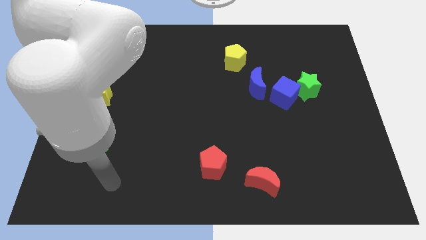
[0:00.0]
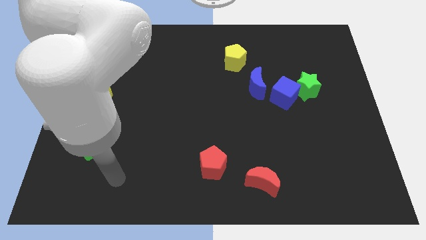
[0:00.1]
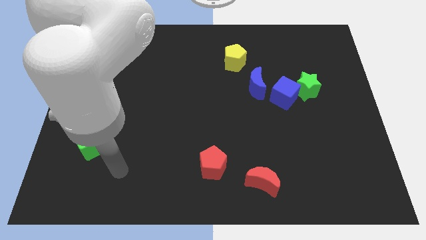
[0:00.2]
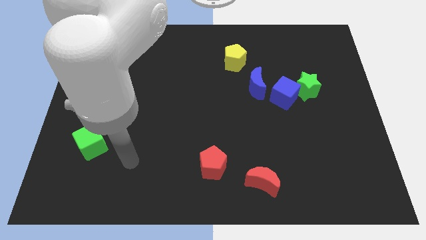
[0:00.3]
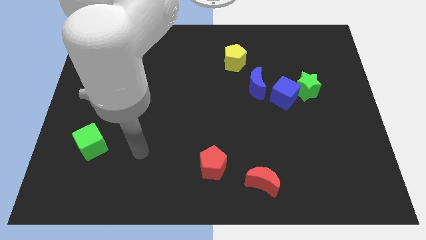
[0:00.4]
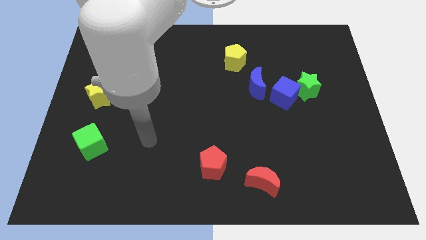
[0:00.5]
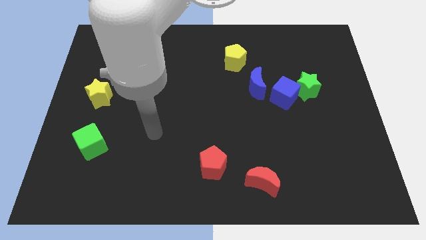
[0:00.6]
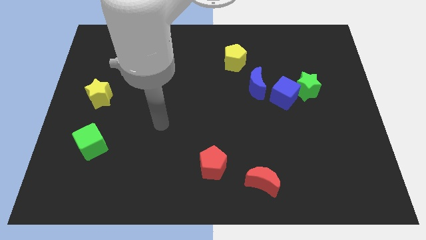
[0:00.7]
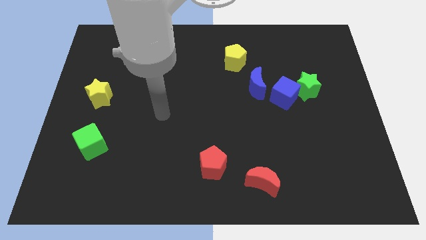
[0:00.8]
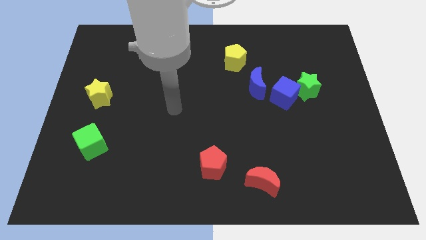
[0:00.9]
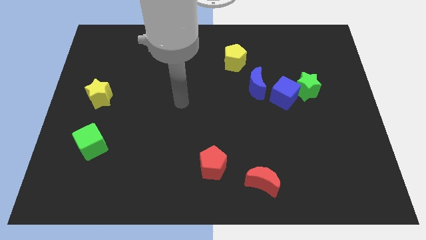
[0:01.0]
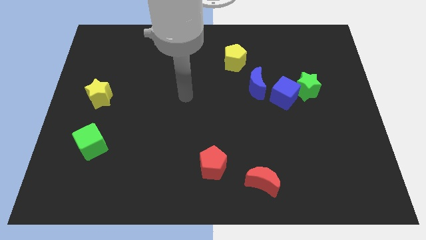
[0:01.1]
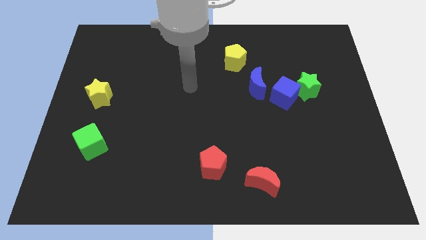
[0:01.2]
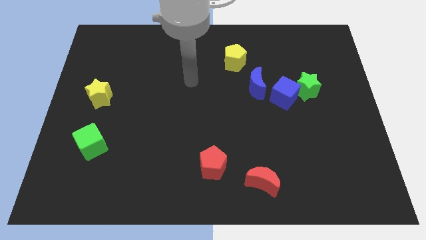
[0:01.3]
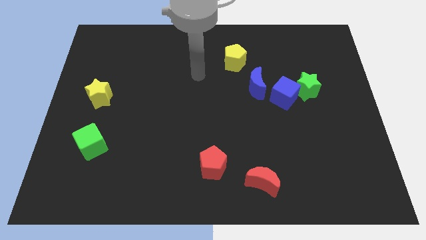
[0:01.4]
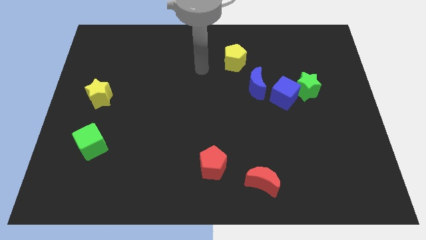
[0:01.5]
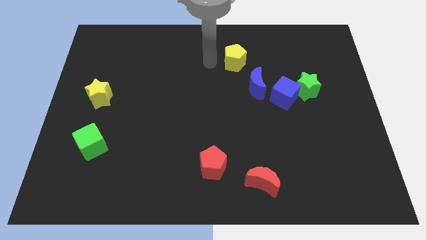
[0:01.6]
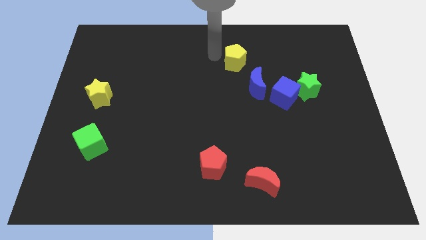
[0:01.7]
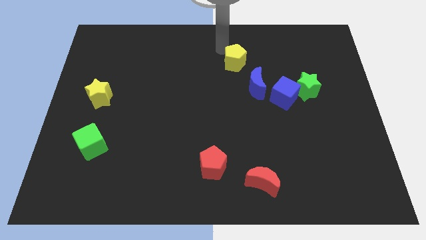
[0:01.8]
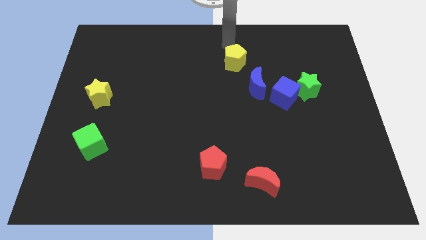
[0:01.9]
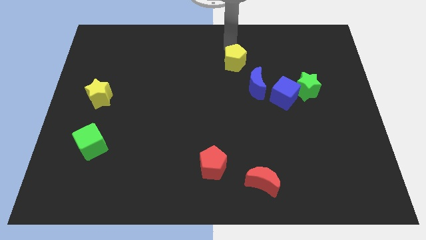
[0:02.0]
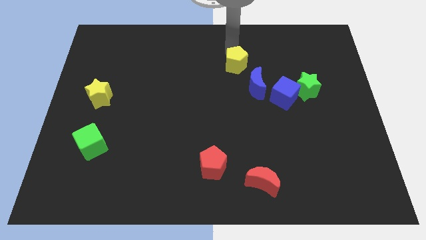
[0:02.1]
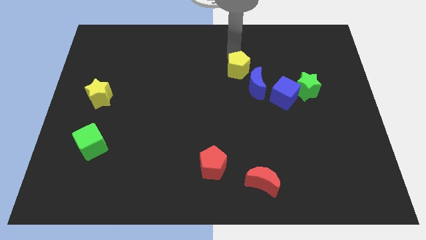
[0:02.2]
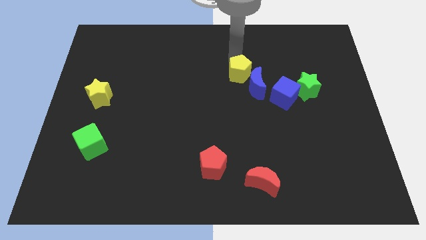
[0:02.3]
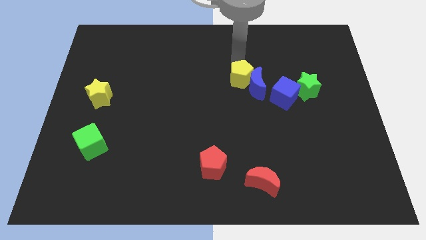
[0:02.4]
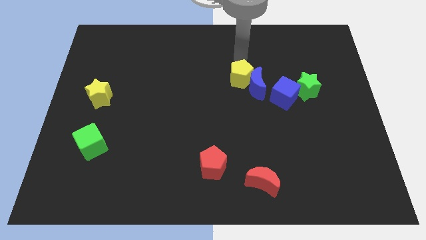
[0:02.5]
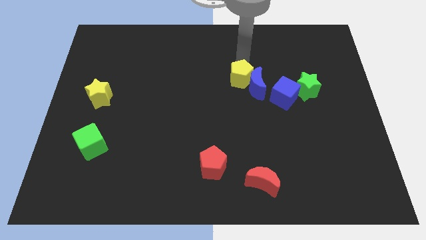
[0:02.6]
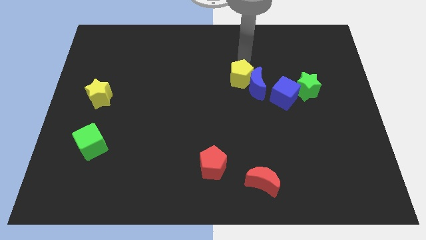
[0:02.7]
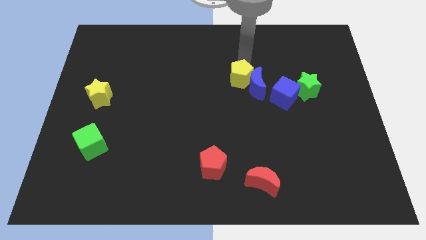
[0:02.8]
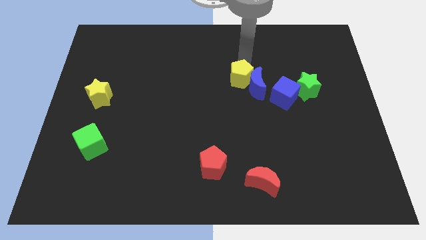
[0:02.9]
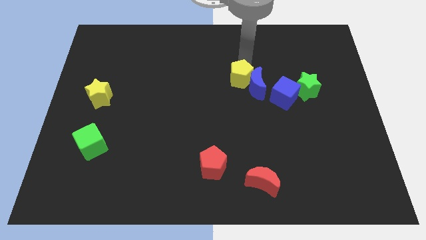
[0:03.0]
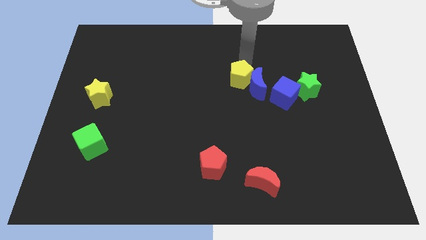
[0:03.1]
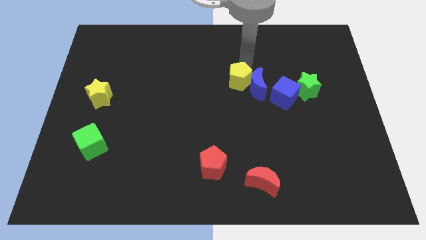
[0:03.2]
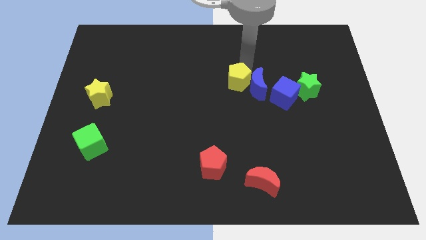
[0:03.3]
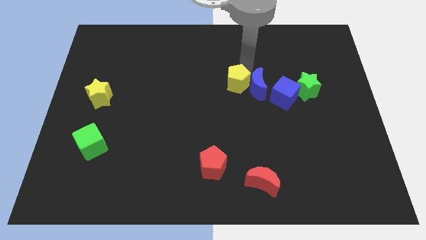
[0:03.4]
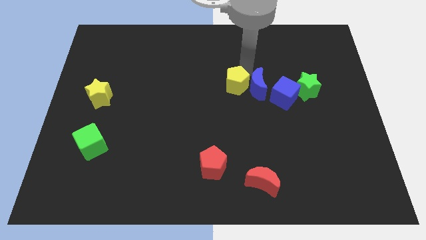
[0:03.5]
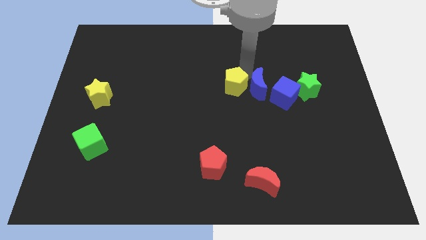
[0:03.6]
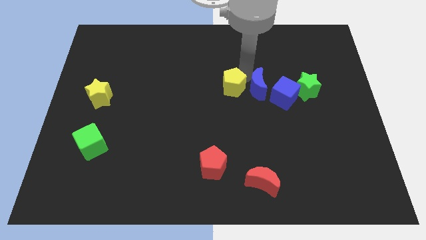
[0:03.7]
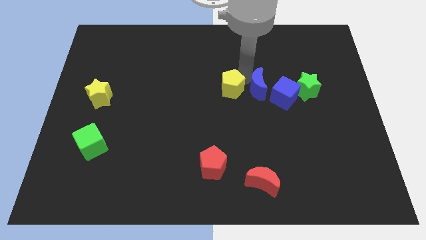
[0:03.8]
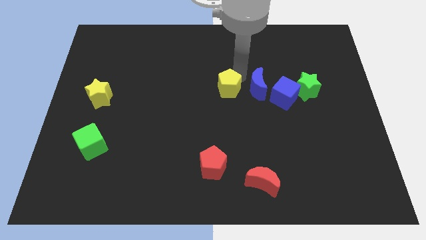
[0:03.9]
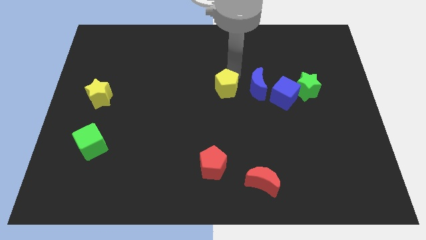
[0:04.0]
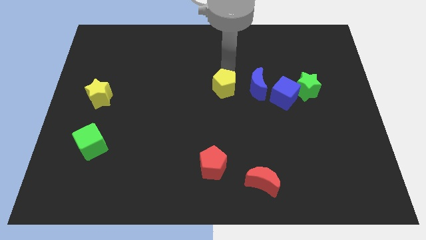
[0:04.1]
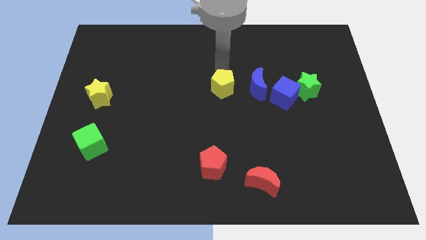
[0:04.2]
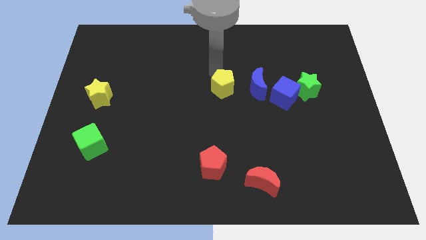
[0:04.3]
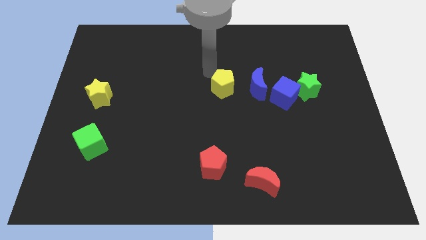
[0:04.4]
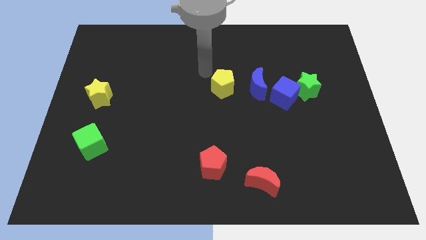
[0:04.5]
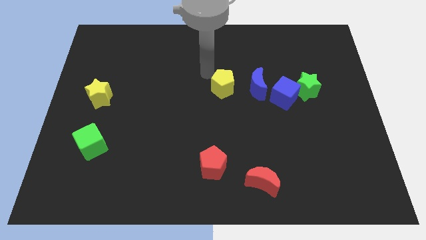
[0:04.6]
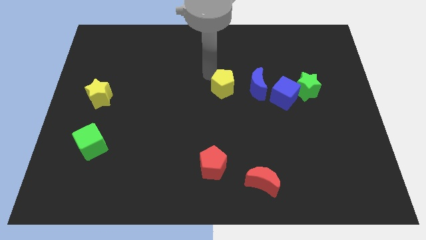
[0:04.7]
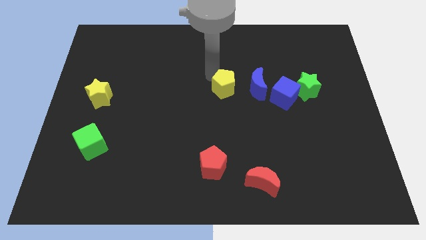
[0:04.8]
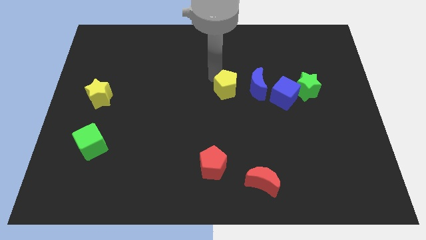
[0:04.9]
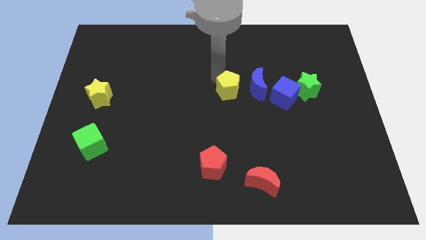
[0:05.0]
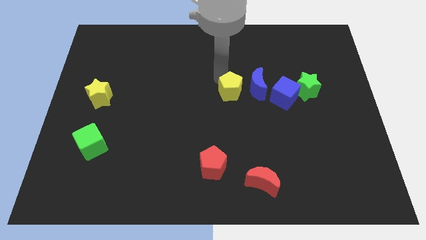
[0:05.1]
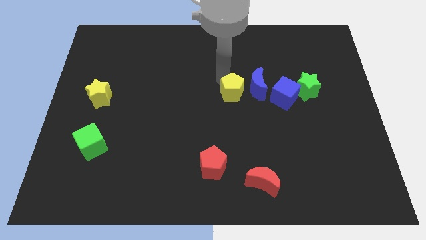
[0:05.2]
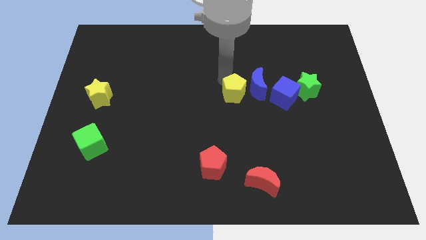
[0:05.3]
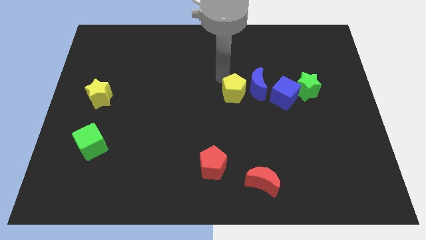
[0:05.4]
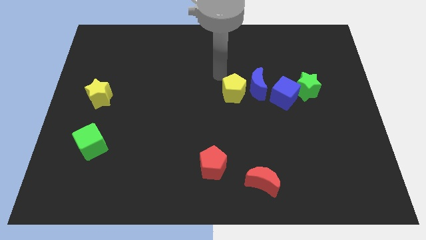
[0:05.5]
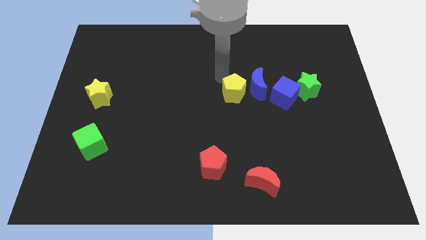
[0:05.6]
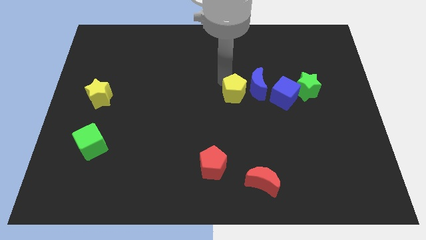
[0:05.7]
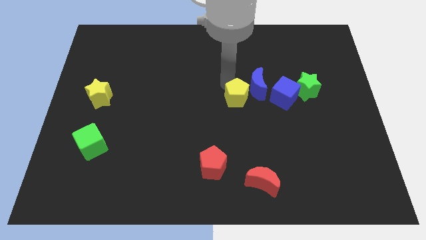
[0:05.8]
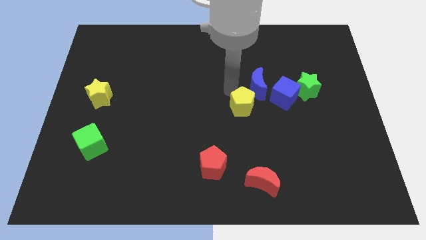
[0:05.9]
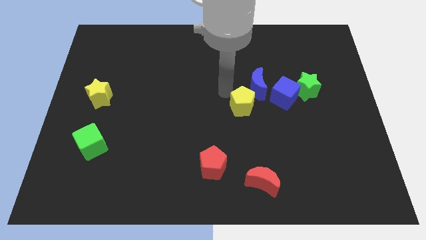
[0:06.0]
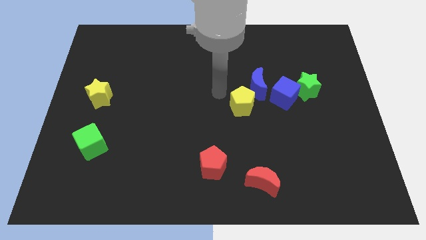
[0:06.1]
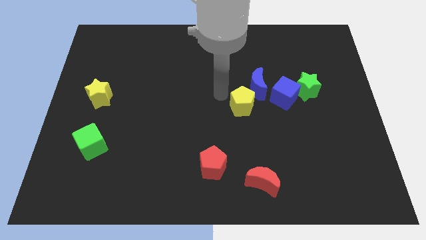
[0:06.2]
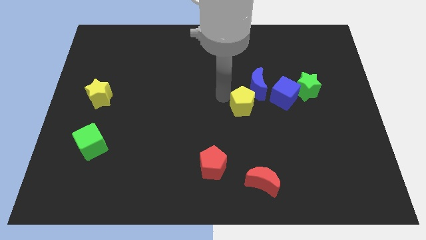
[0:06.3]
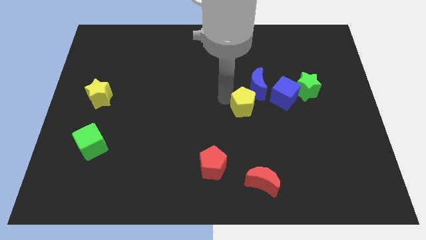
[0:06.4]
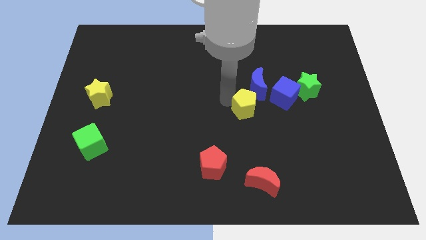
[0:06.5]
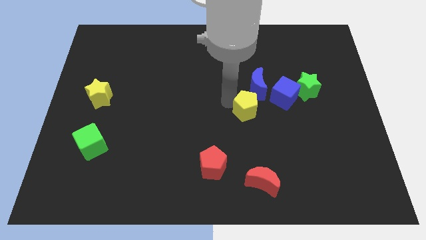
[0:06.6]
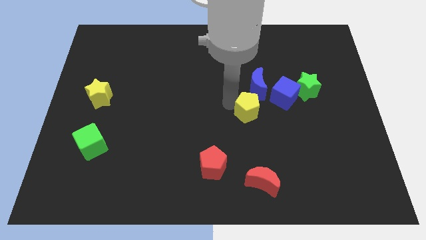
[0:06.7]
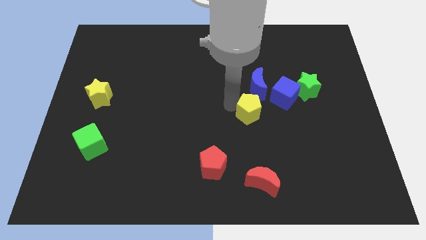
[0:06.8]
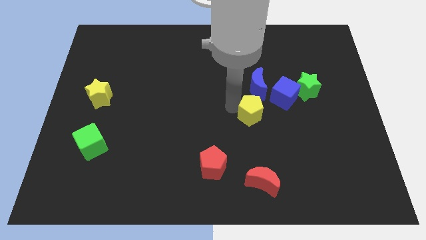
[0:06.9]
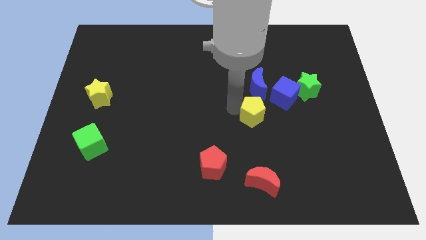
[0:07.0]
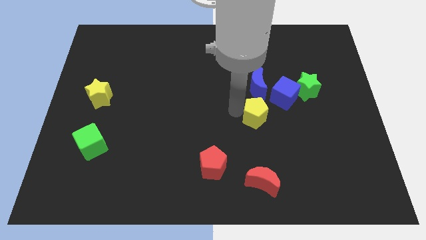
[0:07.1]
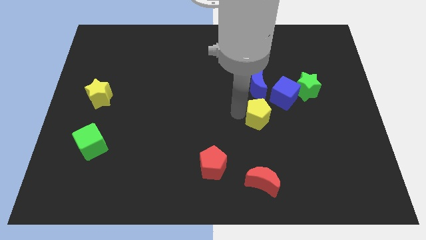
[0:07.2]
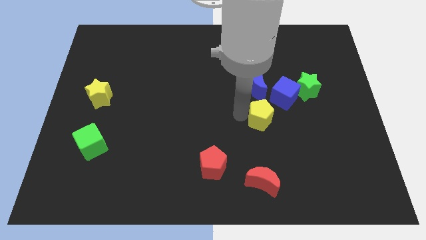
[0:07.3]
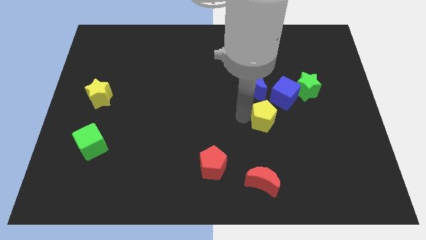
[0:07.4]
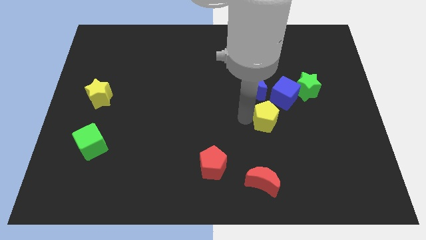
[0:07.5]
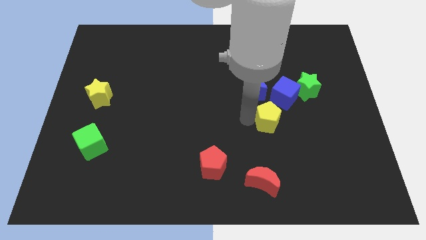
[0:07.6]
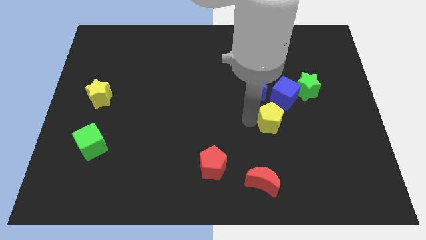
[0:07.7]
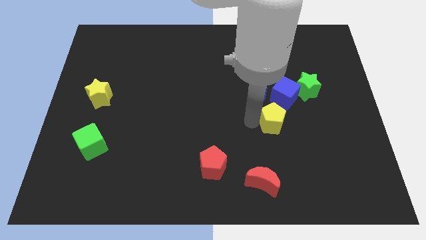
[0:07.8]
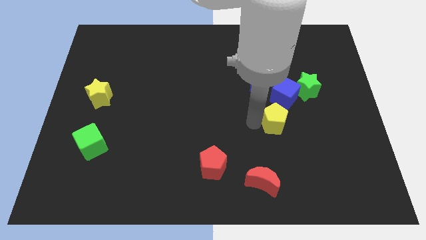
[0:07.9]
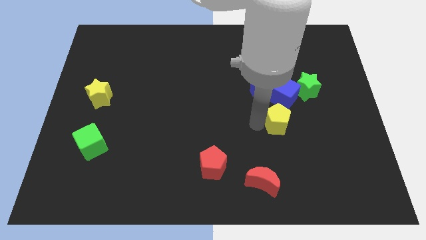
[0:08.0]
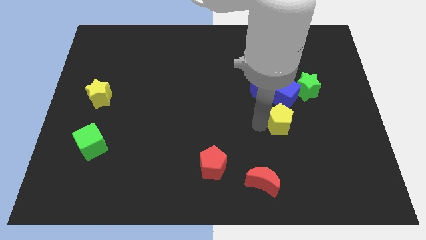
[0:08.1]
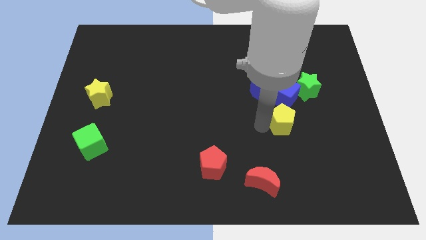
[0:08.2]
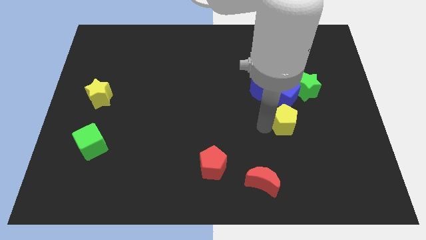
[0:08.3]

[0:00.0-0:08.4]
slide the yellow pentagon down and to the right diagonally
